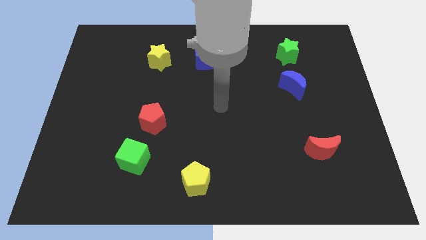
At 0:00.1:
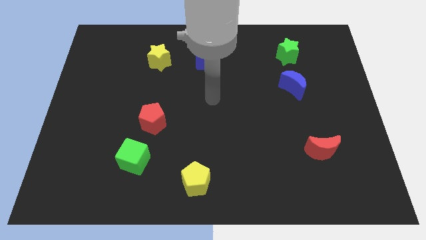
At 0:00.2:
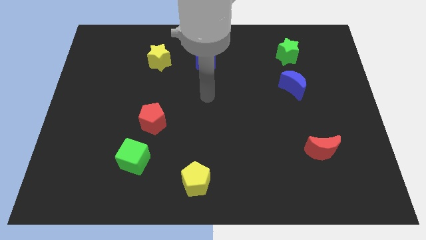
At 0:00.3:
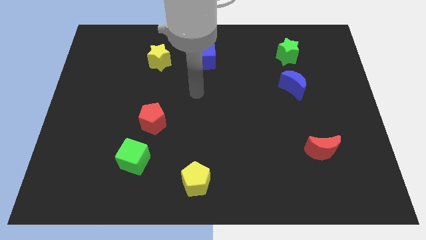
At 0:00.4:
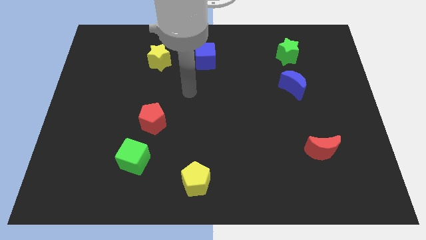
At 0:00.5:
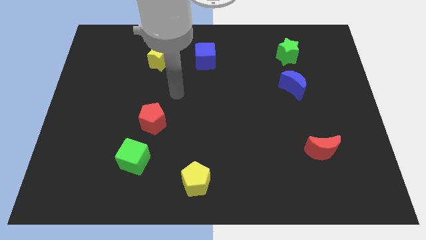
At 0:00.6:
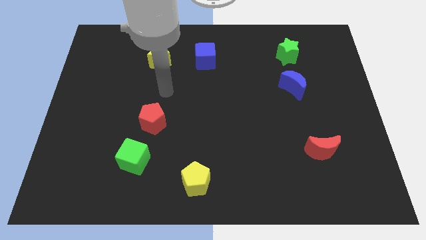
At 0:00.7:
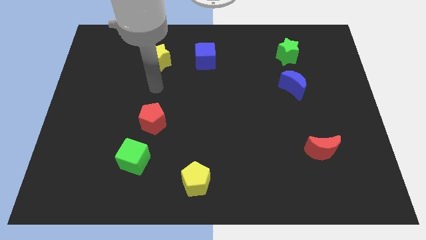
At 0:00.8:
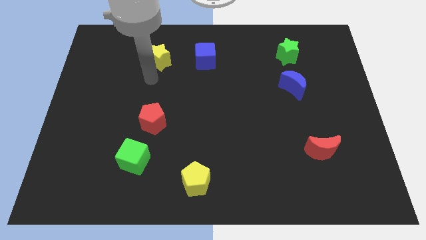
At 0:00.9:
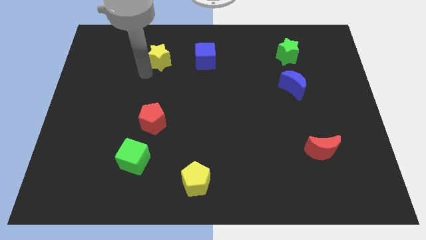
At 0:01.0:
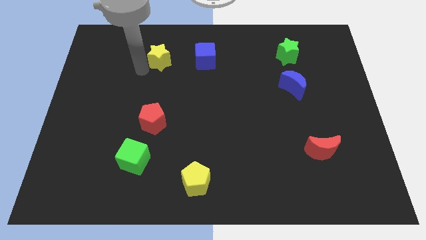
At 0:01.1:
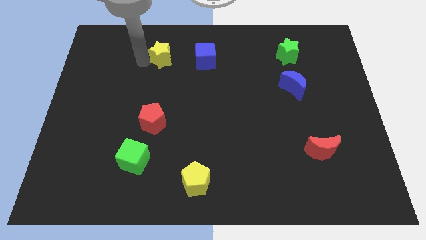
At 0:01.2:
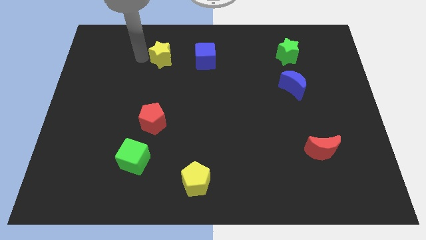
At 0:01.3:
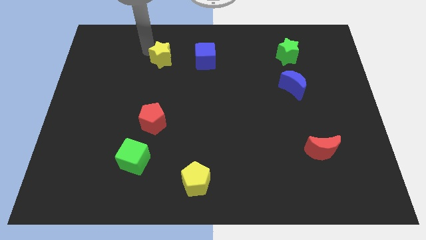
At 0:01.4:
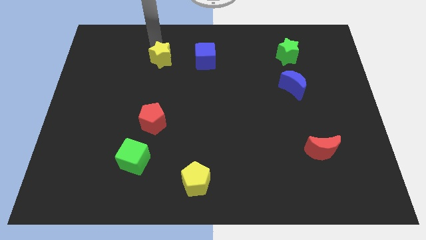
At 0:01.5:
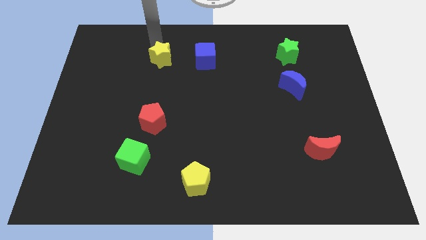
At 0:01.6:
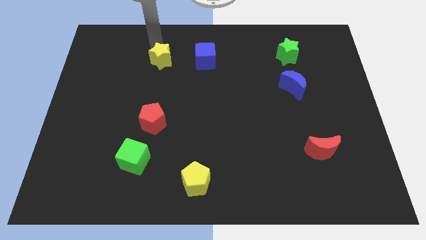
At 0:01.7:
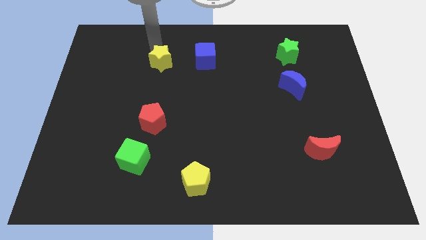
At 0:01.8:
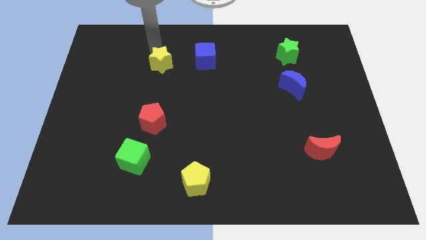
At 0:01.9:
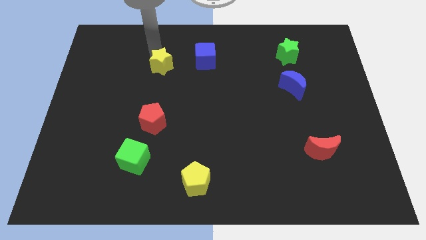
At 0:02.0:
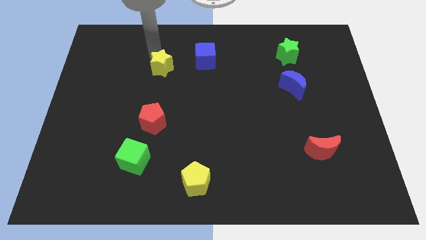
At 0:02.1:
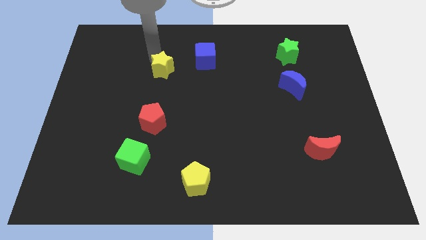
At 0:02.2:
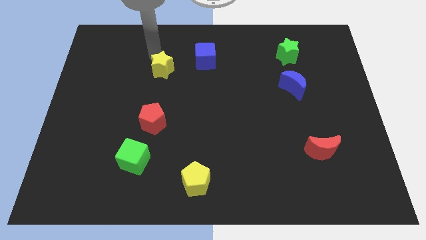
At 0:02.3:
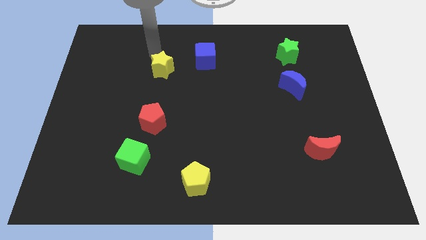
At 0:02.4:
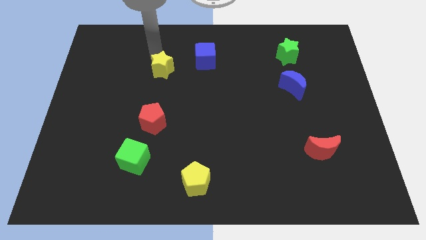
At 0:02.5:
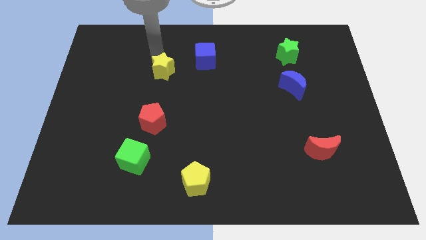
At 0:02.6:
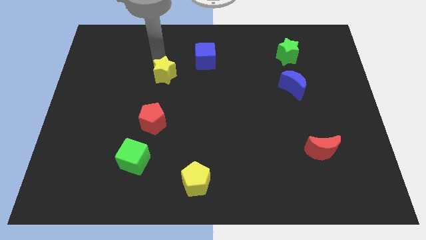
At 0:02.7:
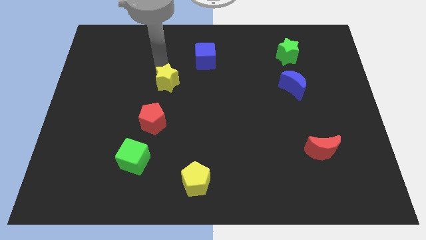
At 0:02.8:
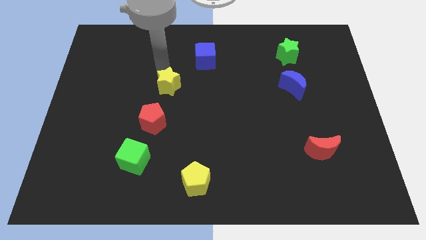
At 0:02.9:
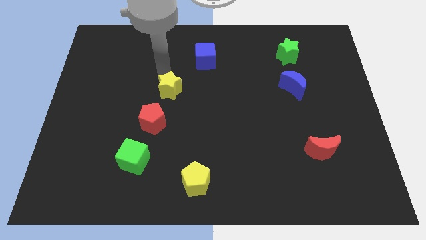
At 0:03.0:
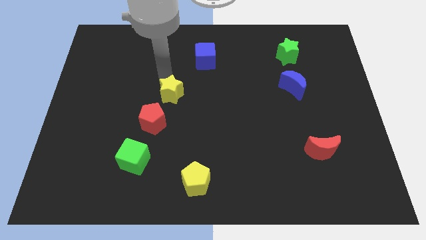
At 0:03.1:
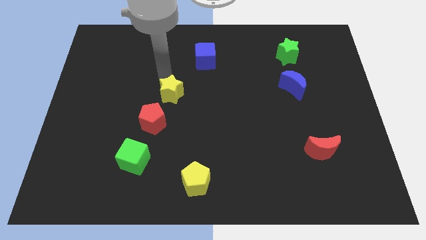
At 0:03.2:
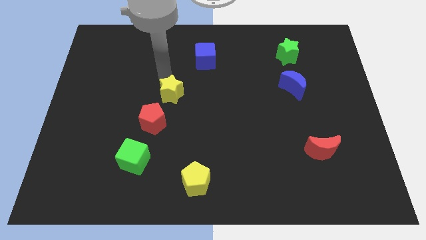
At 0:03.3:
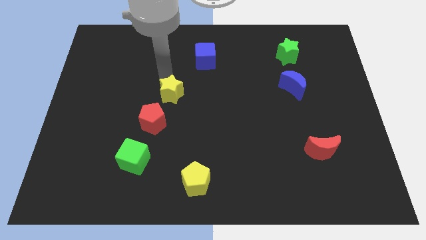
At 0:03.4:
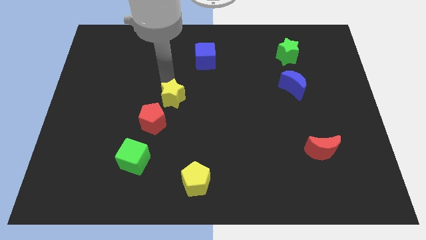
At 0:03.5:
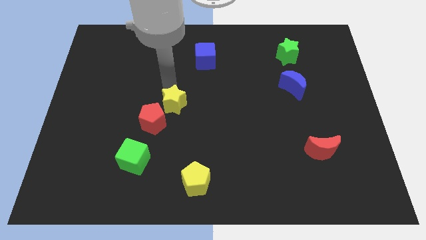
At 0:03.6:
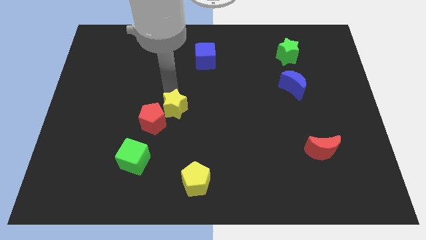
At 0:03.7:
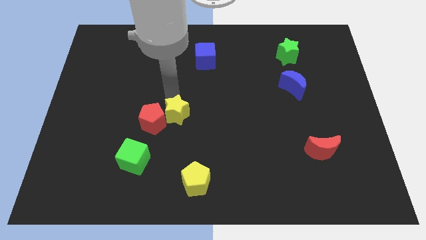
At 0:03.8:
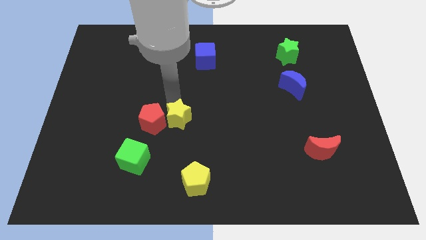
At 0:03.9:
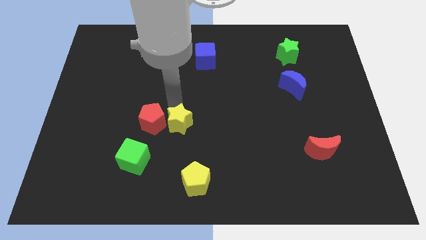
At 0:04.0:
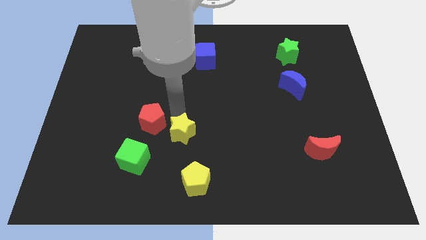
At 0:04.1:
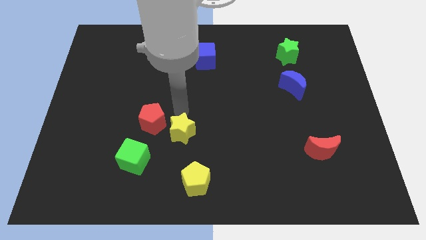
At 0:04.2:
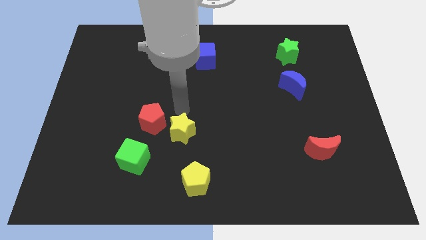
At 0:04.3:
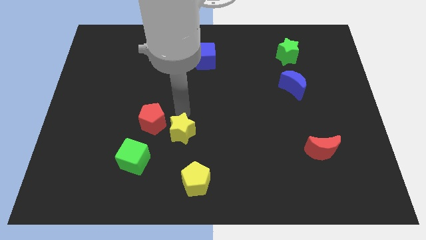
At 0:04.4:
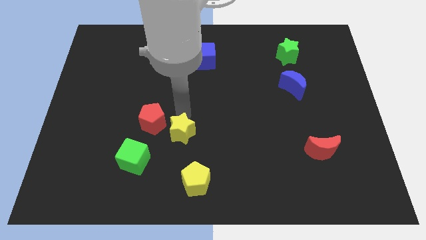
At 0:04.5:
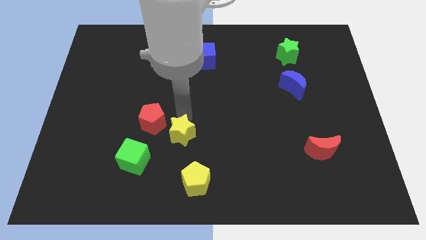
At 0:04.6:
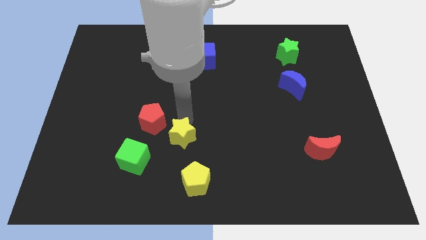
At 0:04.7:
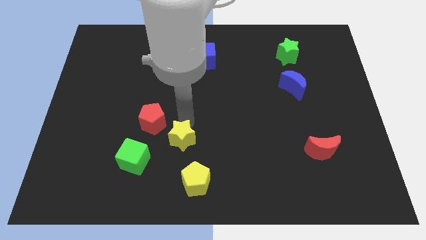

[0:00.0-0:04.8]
move the yellow star to the right of the green cube

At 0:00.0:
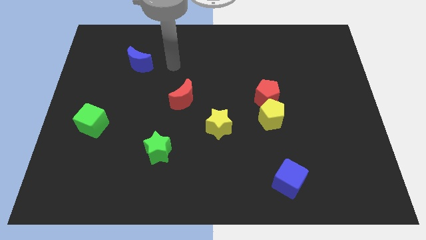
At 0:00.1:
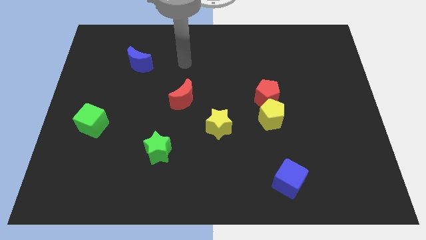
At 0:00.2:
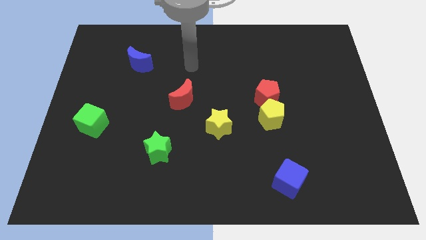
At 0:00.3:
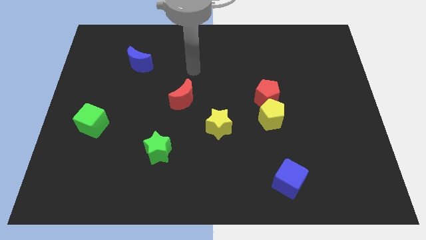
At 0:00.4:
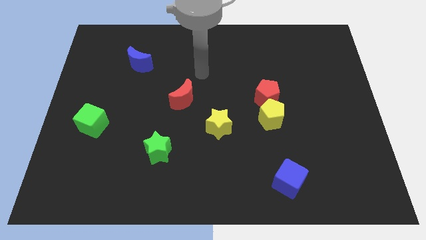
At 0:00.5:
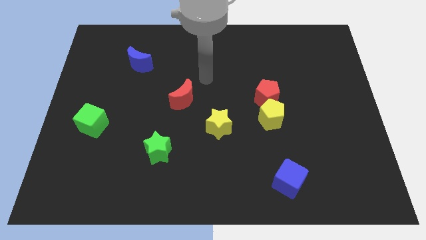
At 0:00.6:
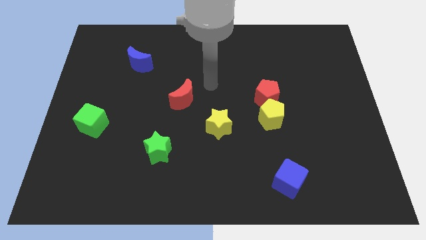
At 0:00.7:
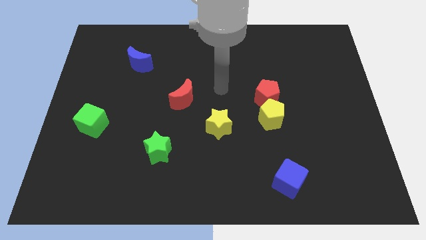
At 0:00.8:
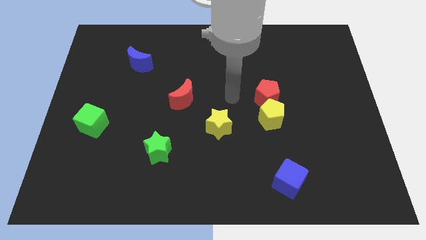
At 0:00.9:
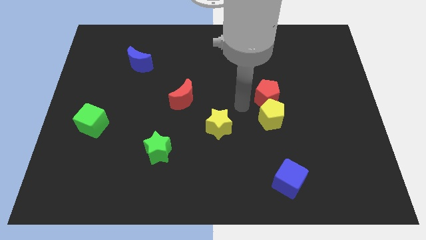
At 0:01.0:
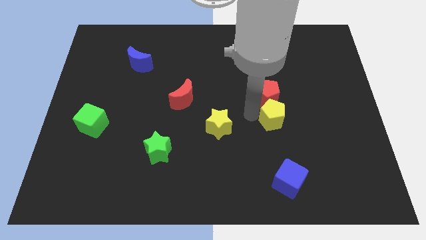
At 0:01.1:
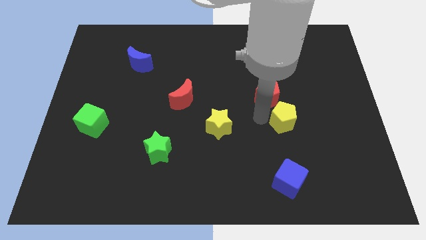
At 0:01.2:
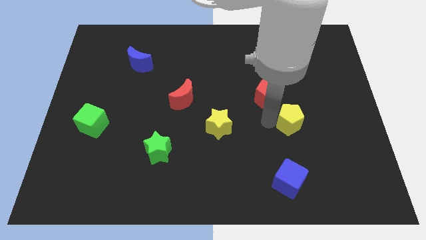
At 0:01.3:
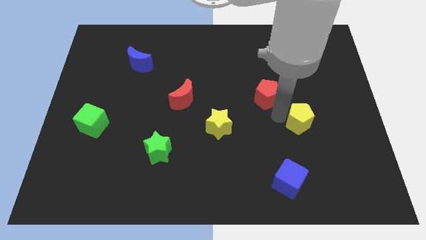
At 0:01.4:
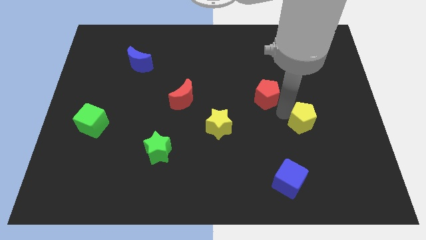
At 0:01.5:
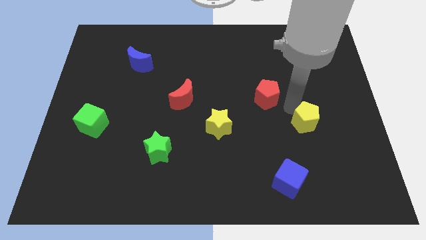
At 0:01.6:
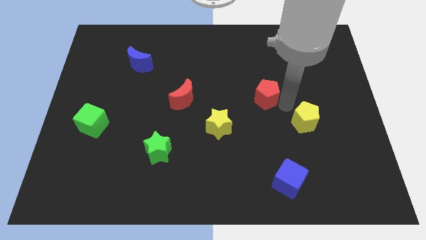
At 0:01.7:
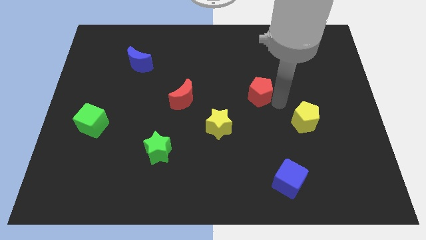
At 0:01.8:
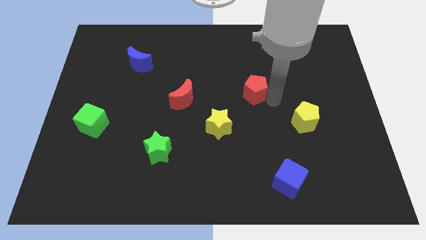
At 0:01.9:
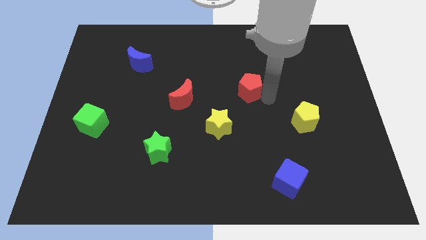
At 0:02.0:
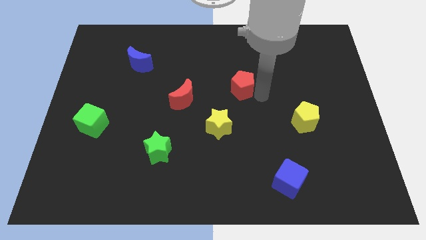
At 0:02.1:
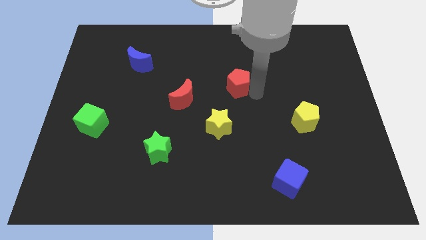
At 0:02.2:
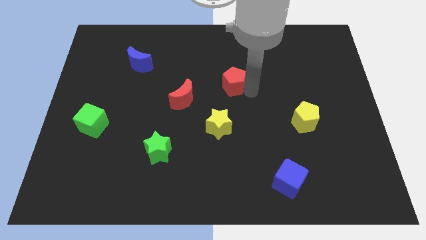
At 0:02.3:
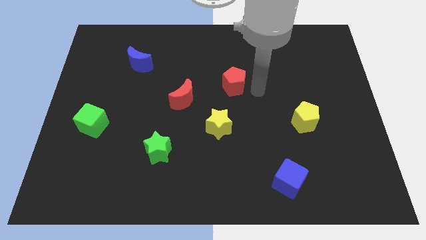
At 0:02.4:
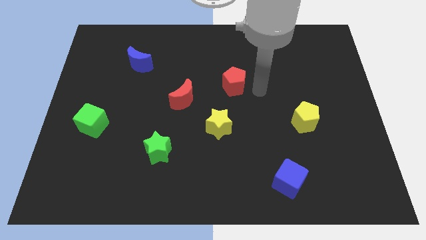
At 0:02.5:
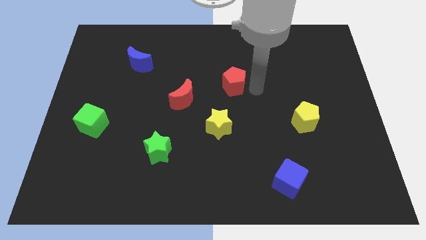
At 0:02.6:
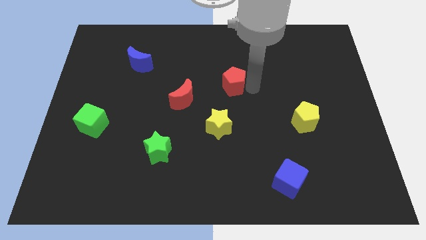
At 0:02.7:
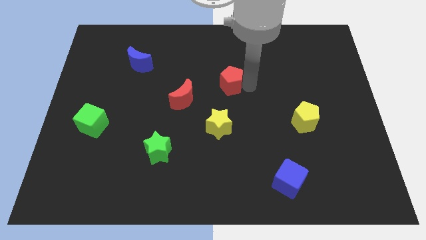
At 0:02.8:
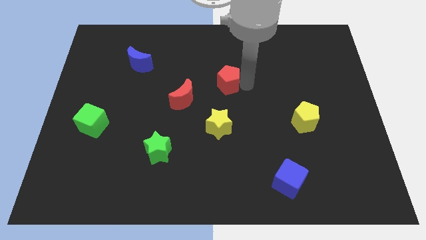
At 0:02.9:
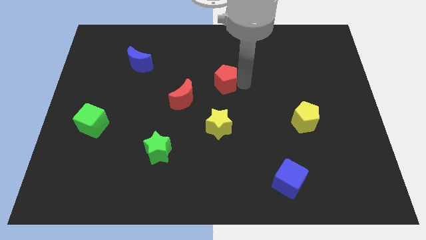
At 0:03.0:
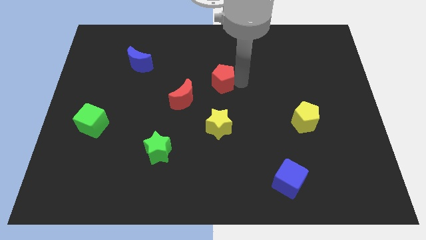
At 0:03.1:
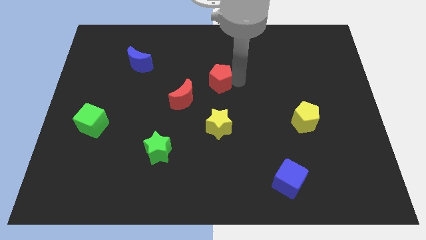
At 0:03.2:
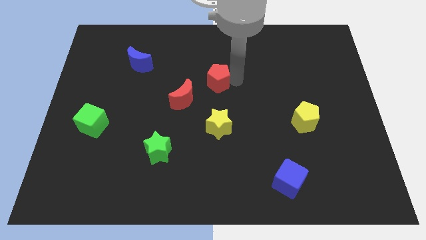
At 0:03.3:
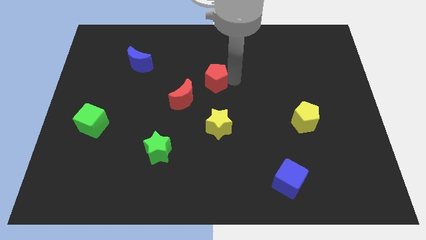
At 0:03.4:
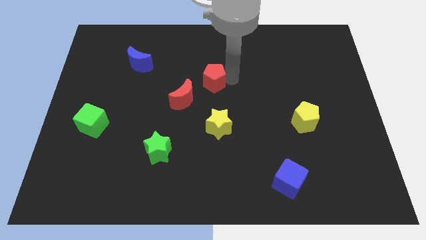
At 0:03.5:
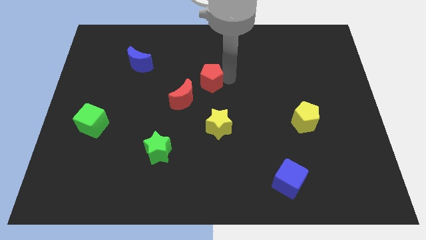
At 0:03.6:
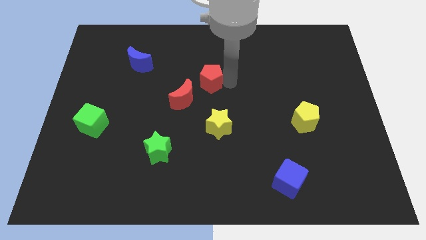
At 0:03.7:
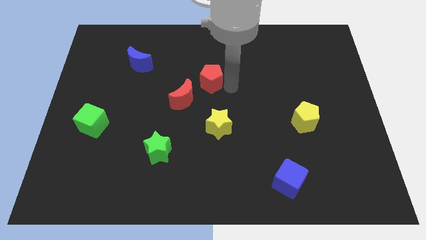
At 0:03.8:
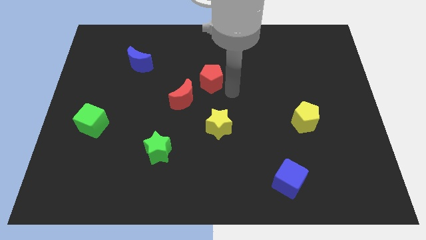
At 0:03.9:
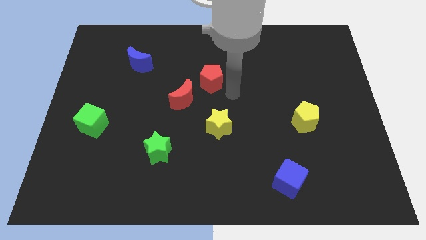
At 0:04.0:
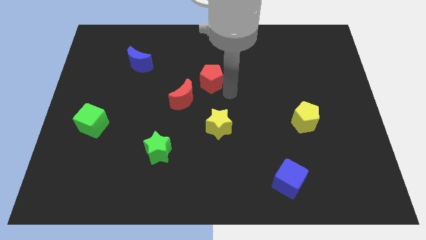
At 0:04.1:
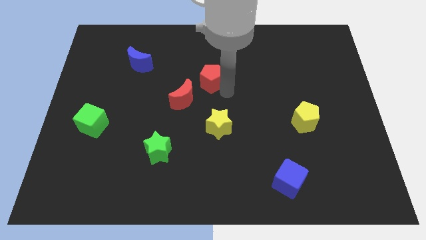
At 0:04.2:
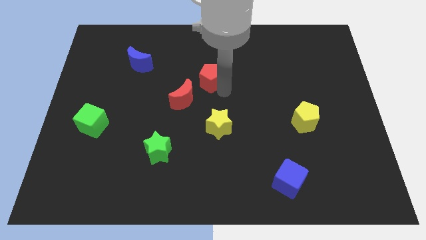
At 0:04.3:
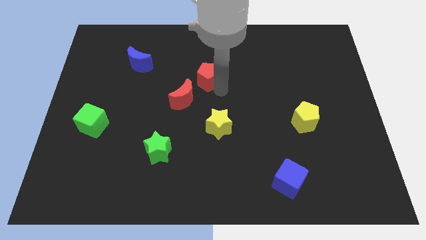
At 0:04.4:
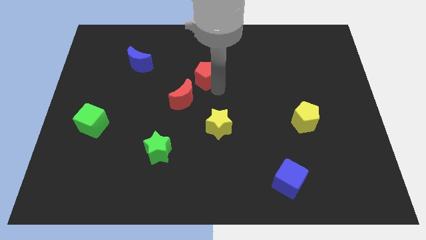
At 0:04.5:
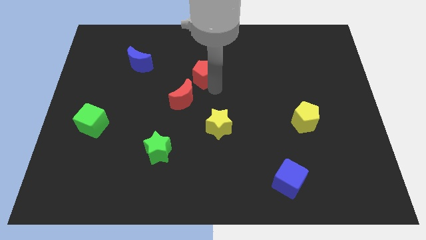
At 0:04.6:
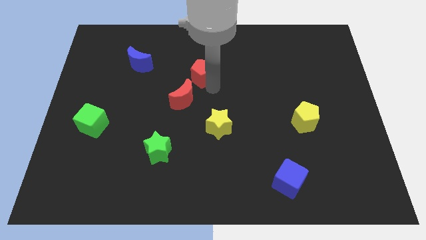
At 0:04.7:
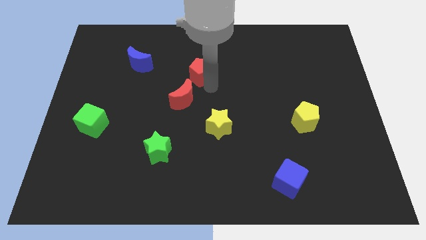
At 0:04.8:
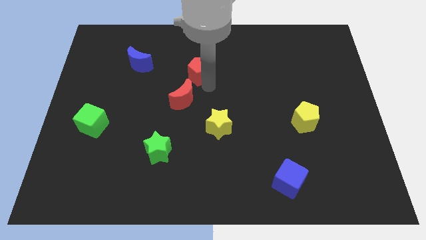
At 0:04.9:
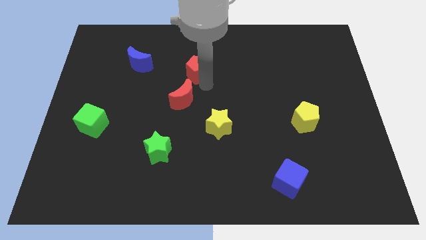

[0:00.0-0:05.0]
move the red pentagon to the right side of the blue moon
